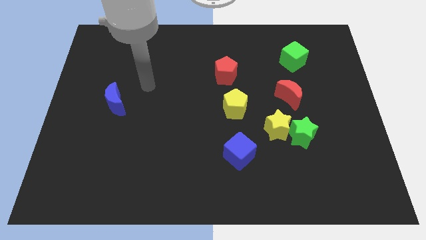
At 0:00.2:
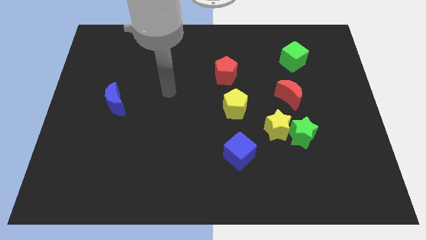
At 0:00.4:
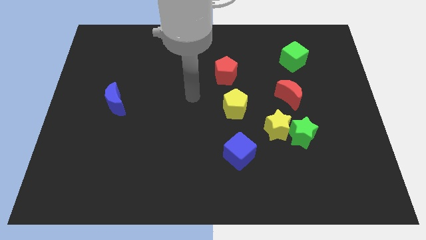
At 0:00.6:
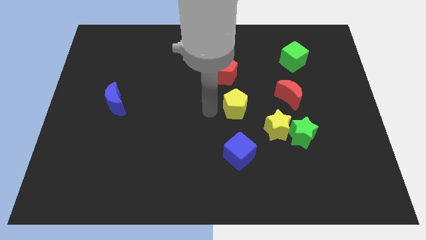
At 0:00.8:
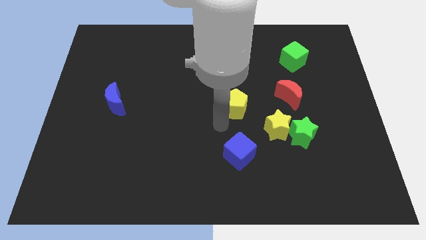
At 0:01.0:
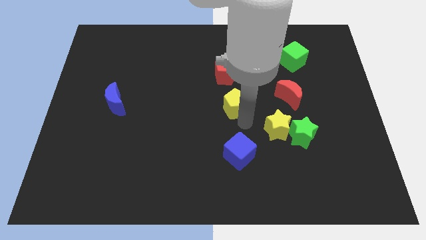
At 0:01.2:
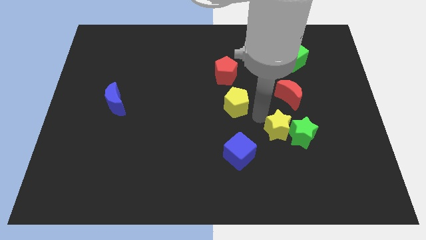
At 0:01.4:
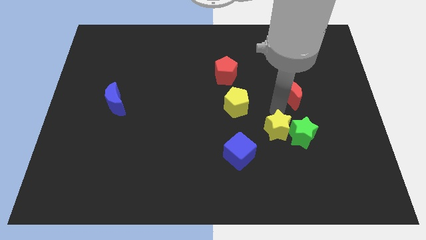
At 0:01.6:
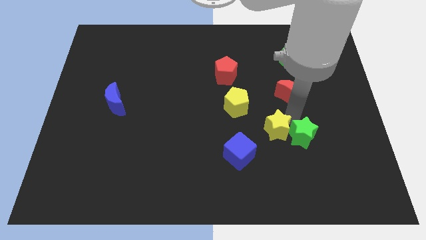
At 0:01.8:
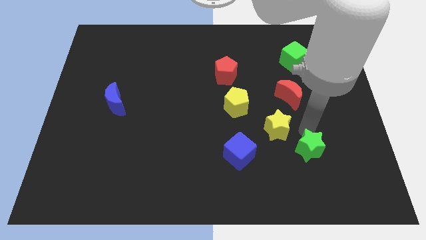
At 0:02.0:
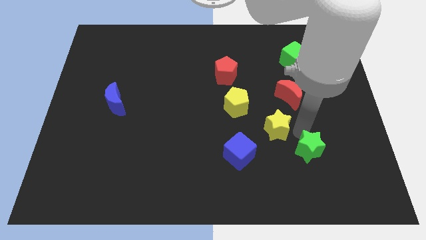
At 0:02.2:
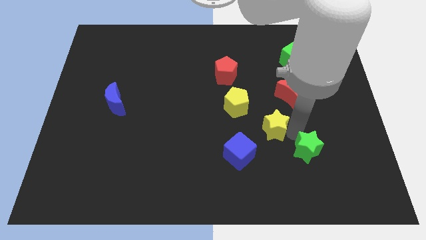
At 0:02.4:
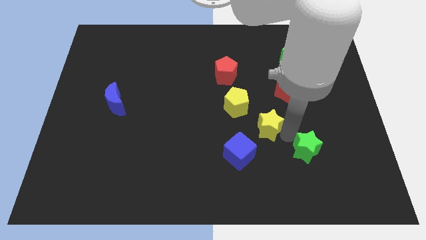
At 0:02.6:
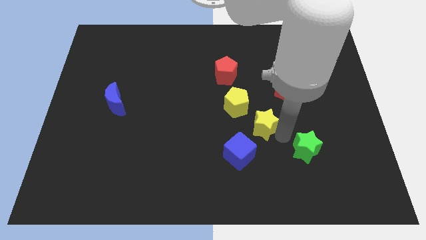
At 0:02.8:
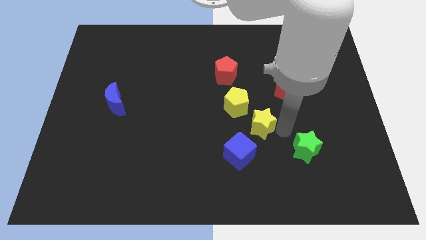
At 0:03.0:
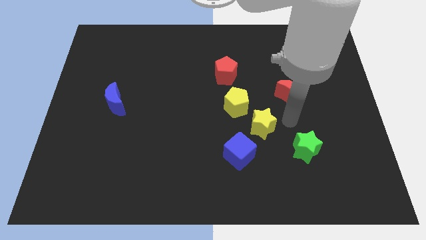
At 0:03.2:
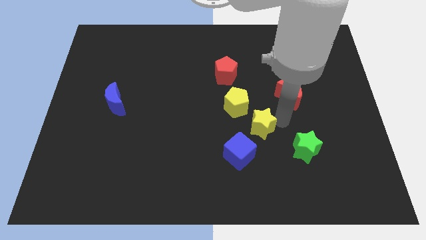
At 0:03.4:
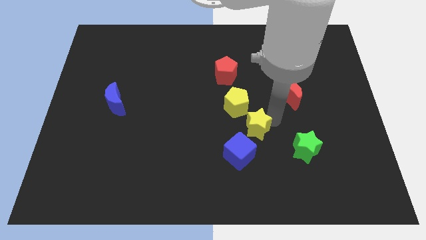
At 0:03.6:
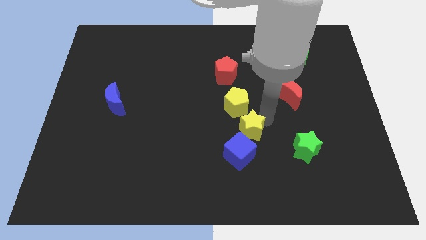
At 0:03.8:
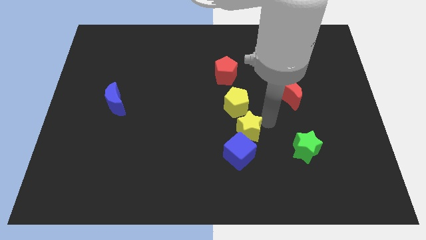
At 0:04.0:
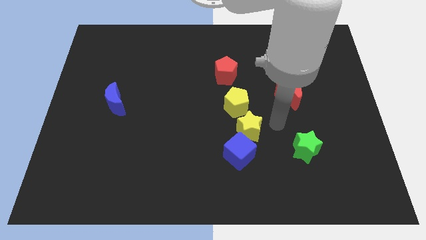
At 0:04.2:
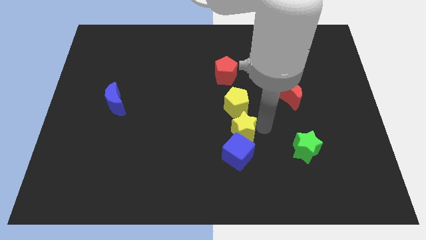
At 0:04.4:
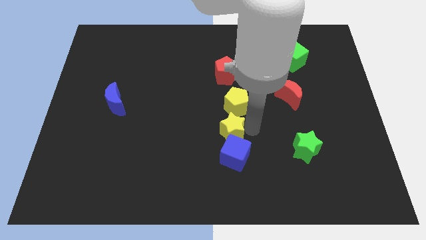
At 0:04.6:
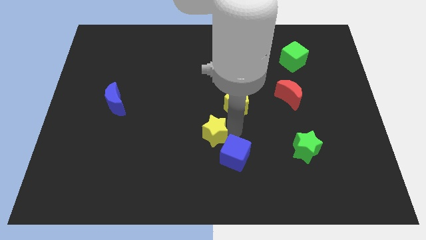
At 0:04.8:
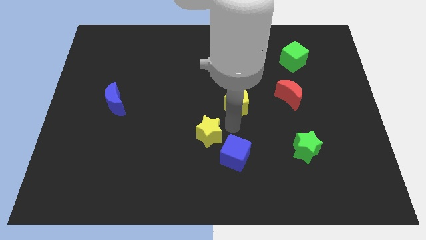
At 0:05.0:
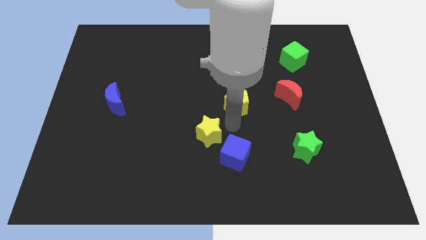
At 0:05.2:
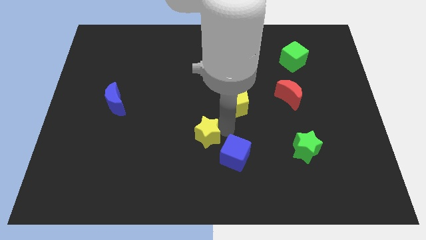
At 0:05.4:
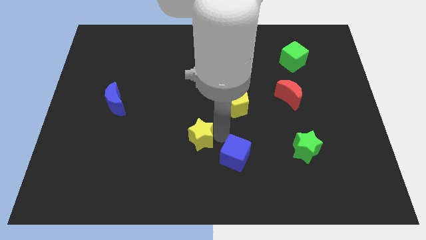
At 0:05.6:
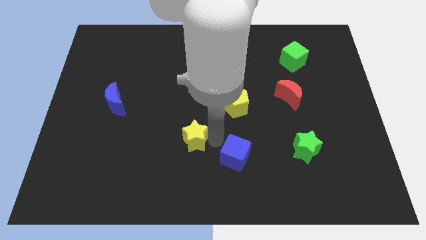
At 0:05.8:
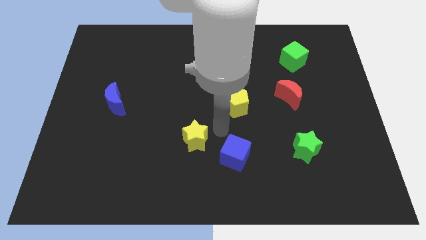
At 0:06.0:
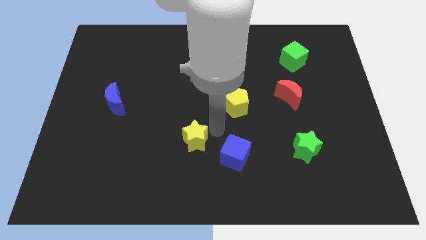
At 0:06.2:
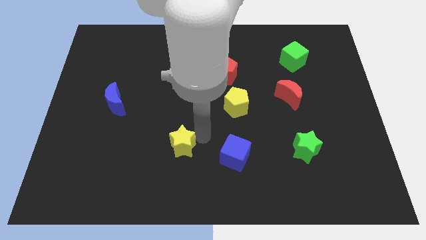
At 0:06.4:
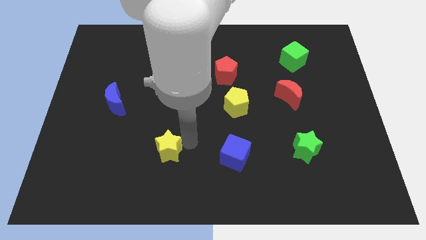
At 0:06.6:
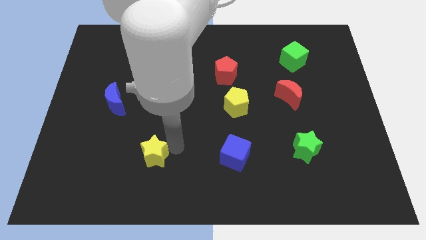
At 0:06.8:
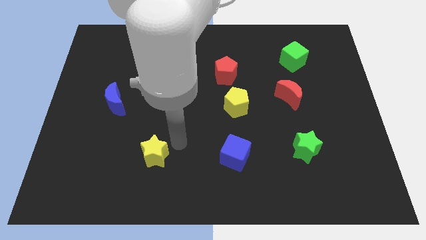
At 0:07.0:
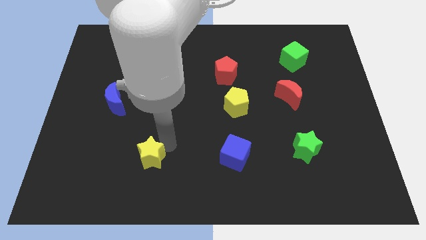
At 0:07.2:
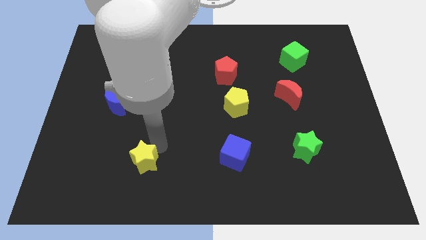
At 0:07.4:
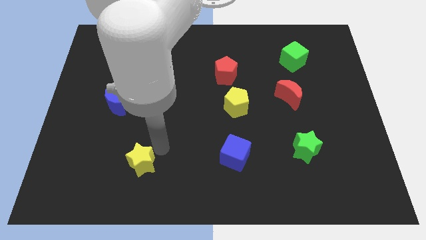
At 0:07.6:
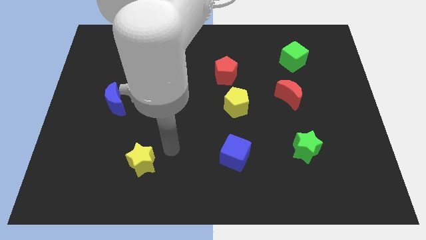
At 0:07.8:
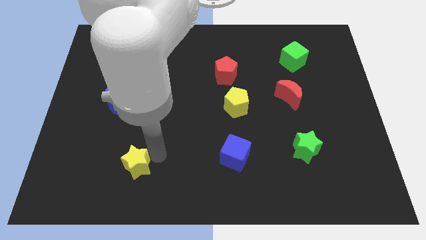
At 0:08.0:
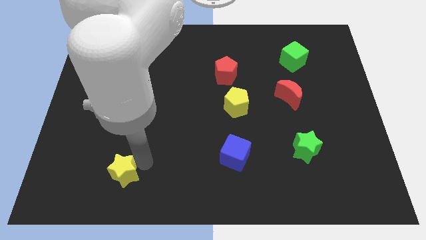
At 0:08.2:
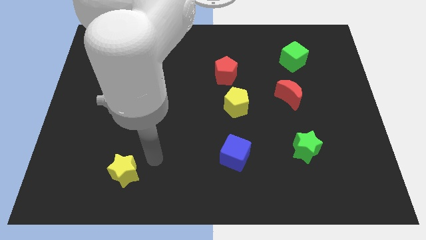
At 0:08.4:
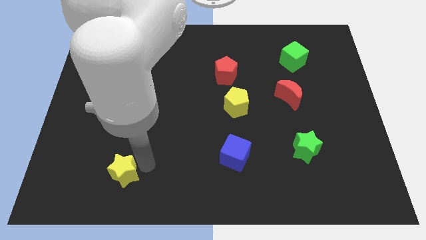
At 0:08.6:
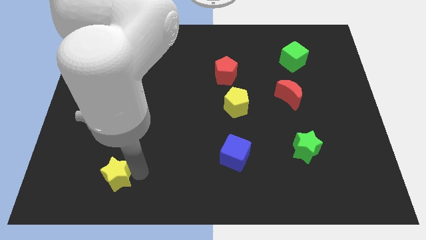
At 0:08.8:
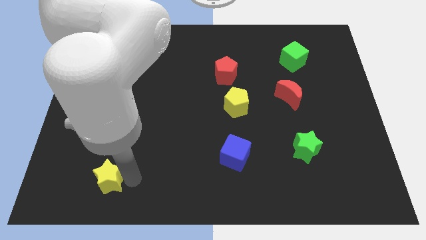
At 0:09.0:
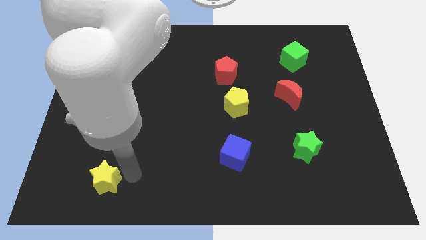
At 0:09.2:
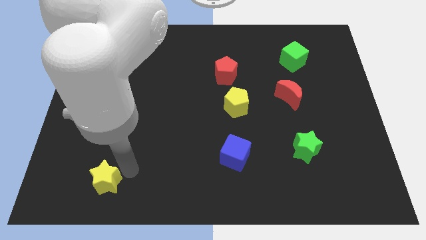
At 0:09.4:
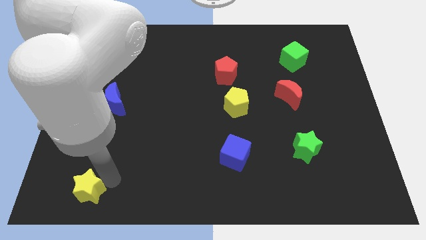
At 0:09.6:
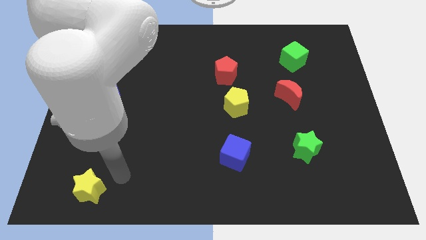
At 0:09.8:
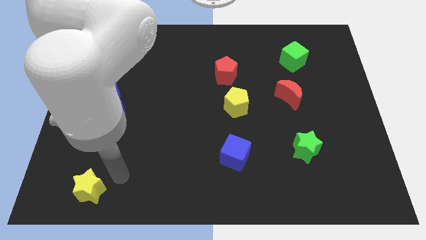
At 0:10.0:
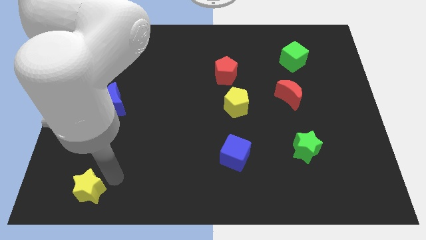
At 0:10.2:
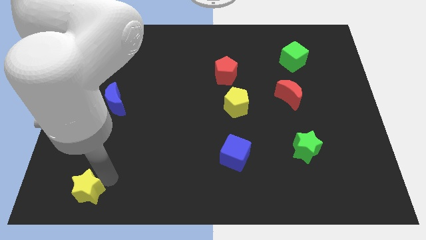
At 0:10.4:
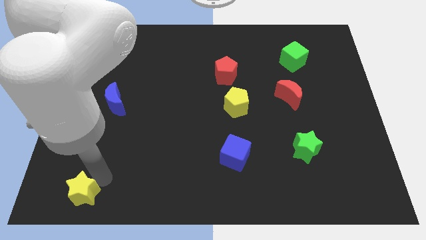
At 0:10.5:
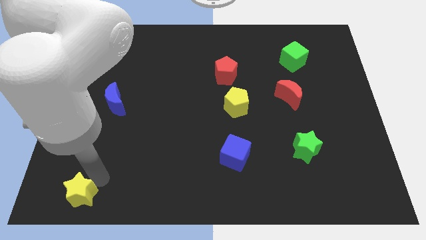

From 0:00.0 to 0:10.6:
push the yellow star to the bottom left corner

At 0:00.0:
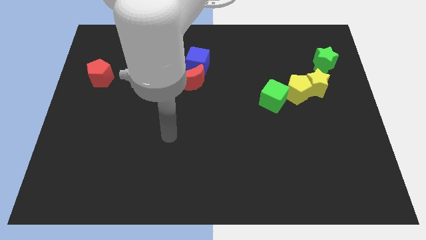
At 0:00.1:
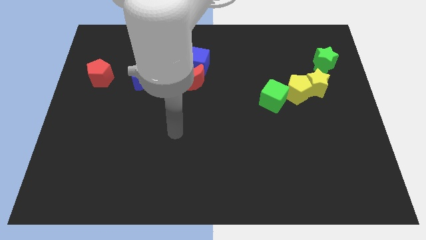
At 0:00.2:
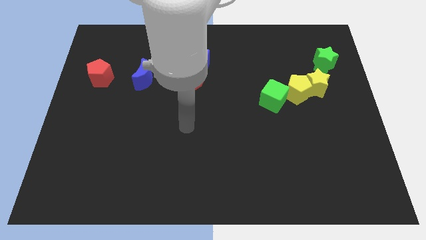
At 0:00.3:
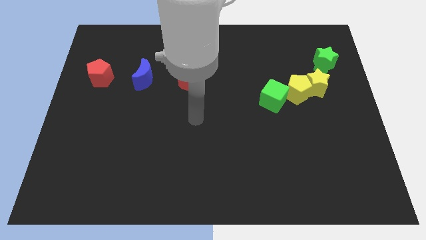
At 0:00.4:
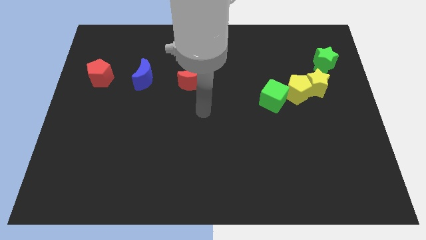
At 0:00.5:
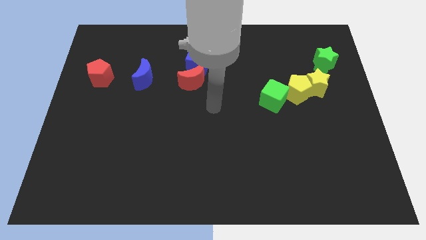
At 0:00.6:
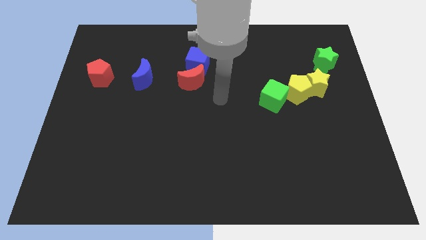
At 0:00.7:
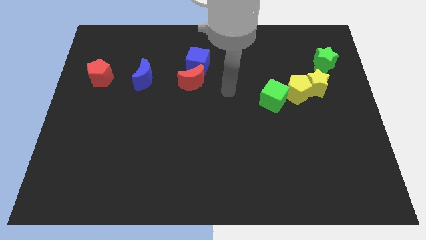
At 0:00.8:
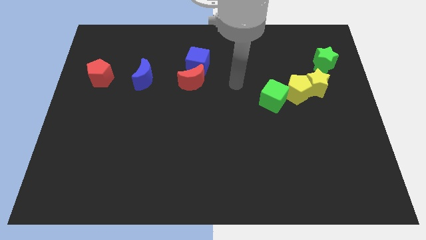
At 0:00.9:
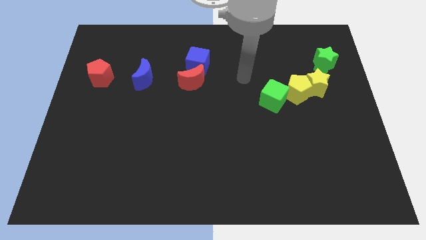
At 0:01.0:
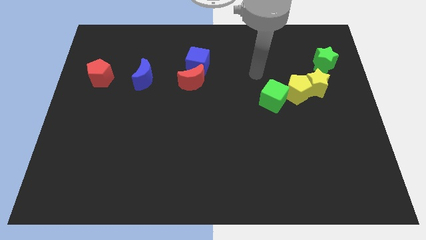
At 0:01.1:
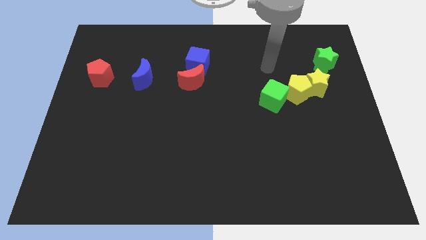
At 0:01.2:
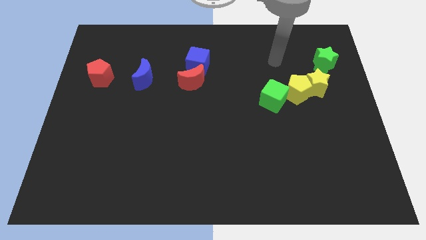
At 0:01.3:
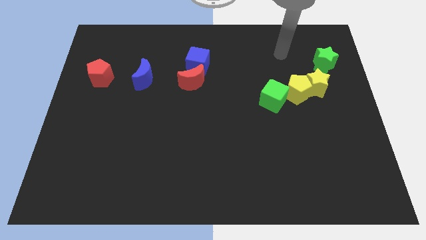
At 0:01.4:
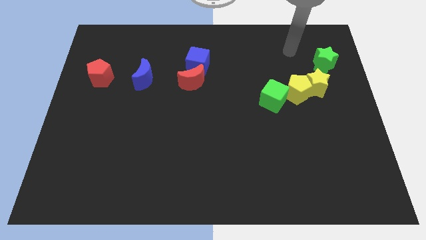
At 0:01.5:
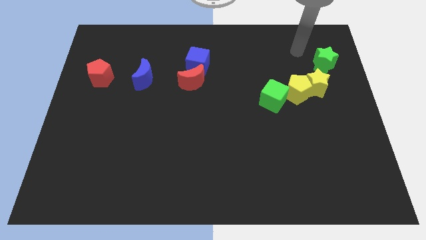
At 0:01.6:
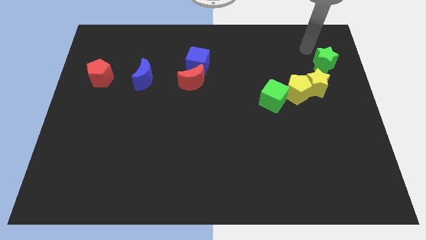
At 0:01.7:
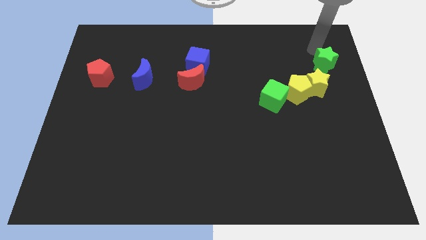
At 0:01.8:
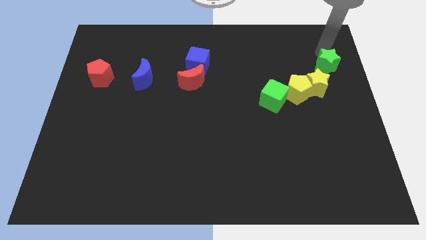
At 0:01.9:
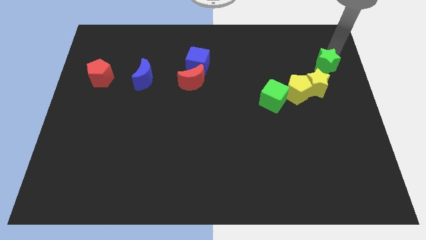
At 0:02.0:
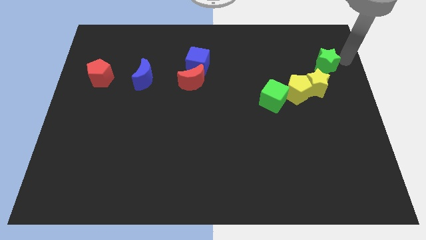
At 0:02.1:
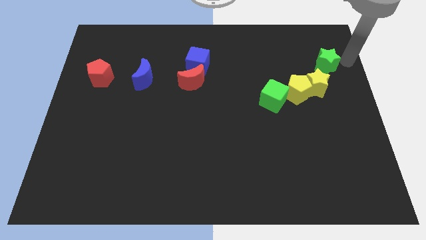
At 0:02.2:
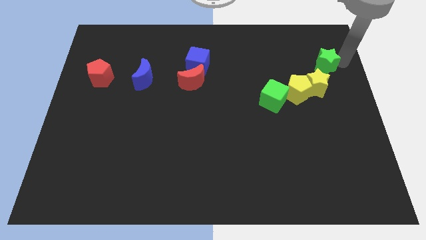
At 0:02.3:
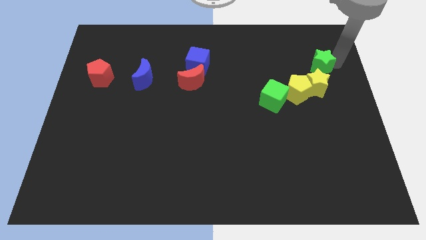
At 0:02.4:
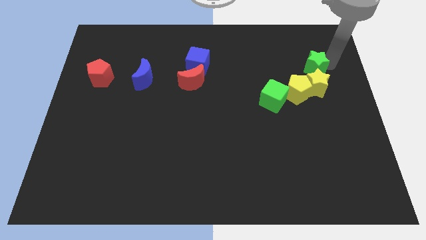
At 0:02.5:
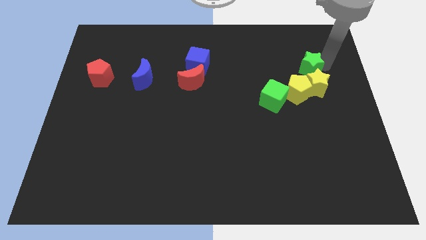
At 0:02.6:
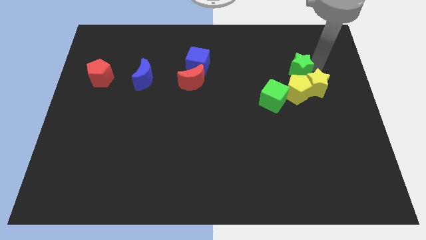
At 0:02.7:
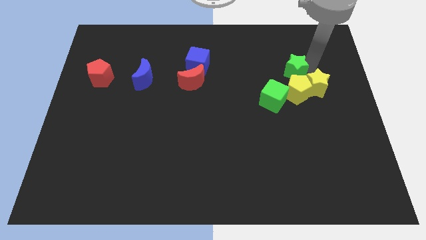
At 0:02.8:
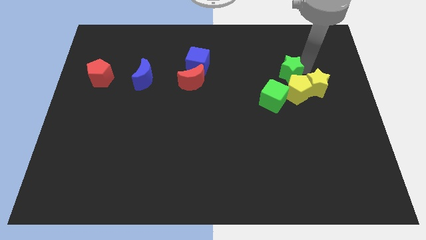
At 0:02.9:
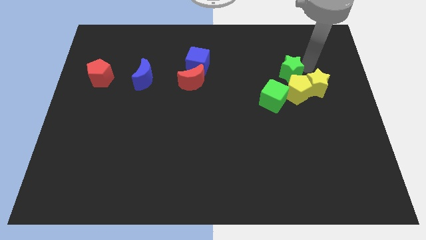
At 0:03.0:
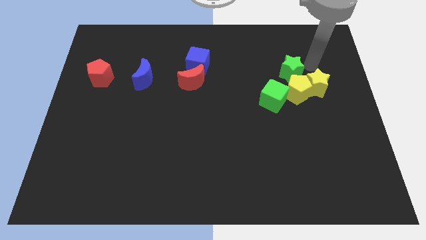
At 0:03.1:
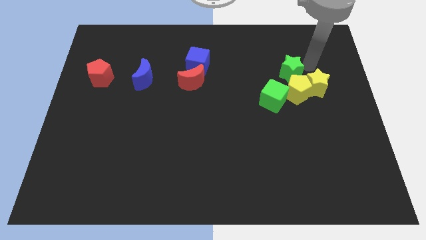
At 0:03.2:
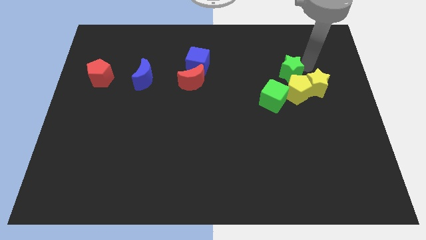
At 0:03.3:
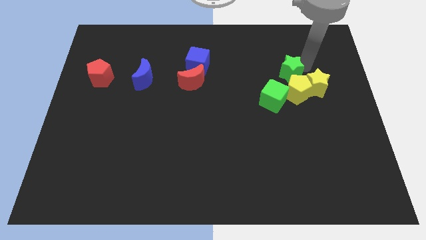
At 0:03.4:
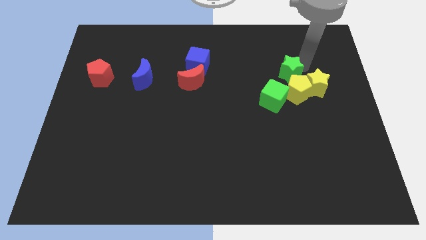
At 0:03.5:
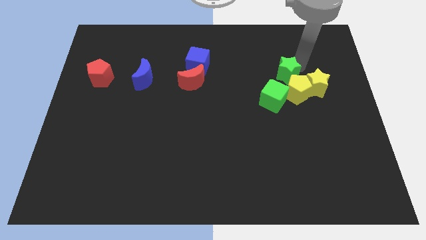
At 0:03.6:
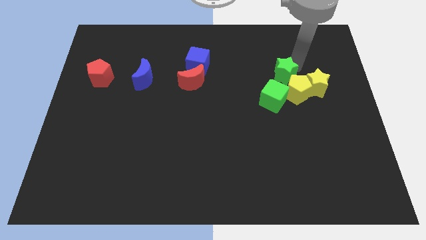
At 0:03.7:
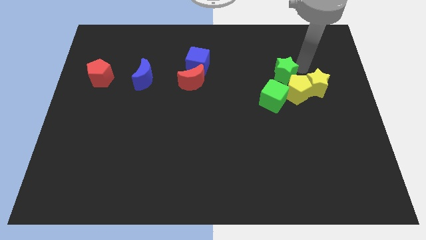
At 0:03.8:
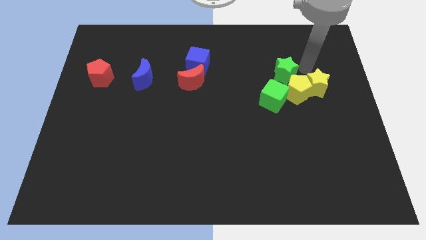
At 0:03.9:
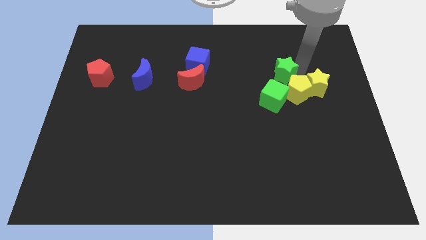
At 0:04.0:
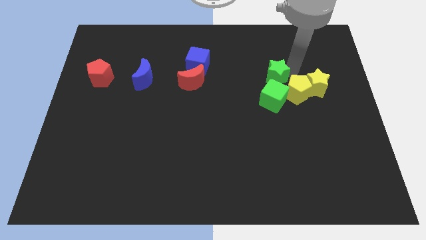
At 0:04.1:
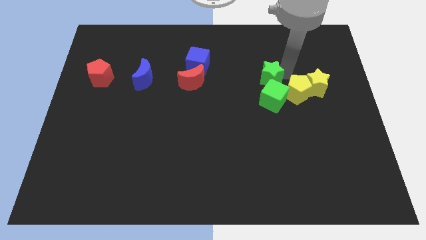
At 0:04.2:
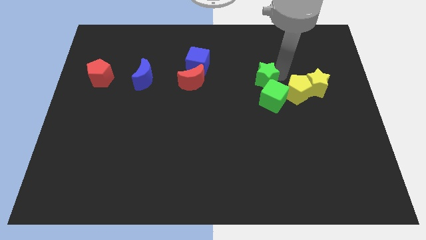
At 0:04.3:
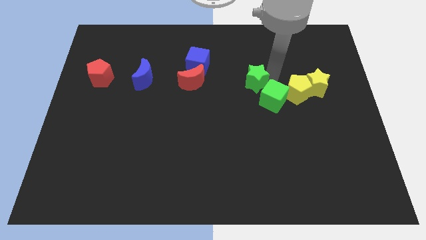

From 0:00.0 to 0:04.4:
slide the green star to the middle
